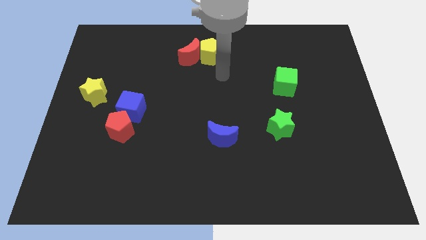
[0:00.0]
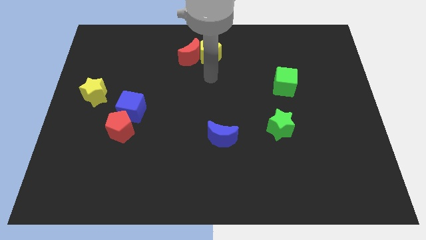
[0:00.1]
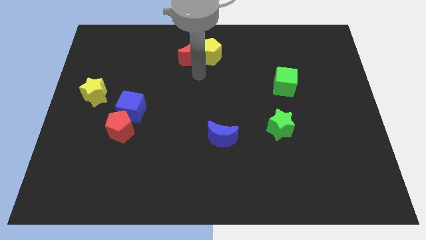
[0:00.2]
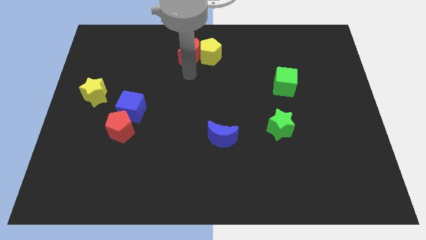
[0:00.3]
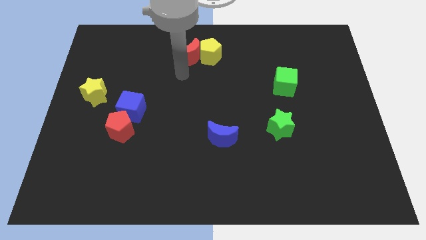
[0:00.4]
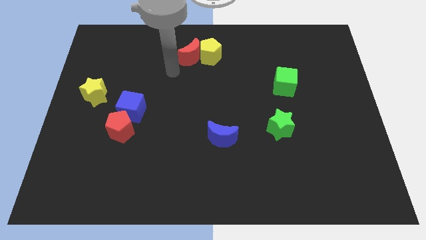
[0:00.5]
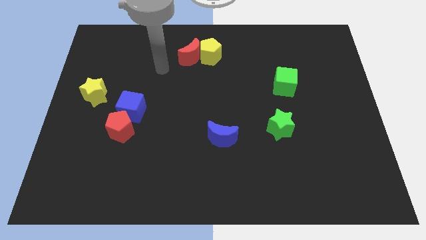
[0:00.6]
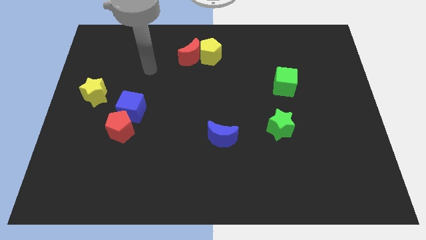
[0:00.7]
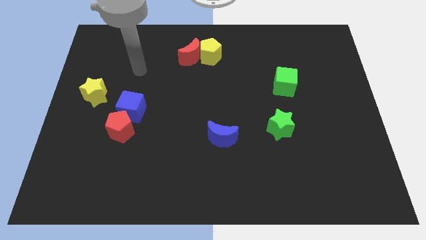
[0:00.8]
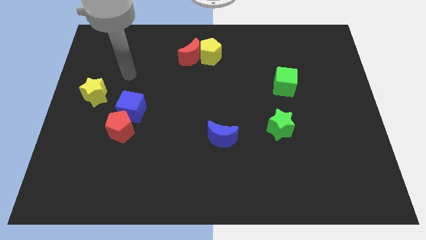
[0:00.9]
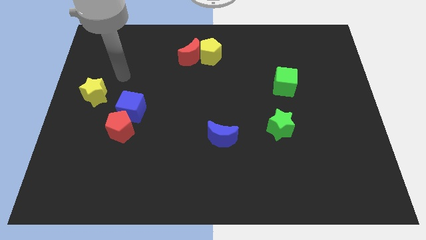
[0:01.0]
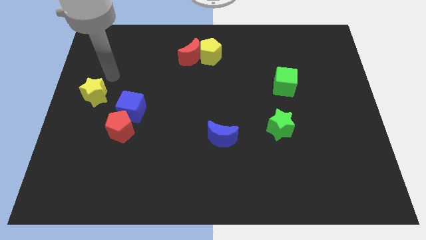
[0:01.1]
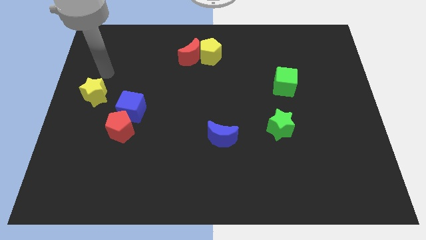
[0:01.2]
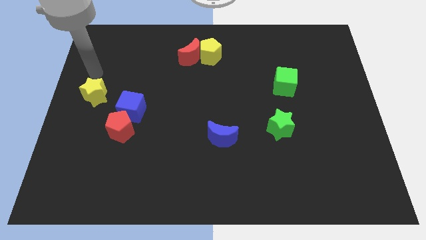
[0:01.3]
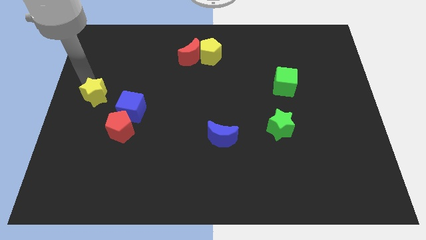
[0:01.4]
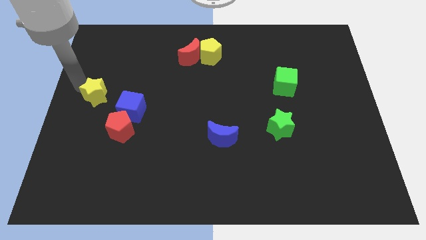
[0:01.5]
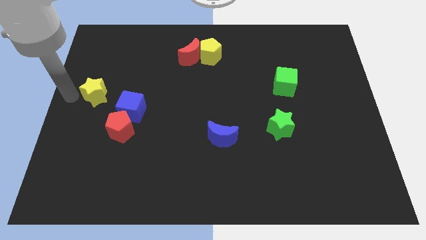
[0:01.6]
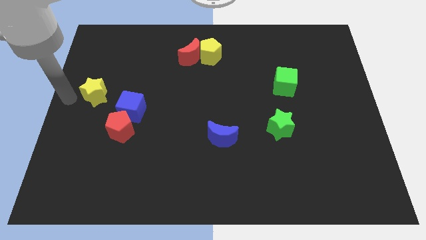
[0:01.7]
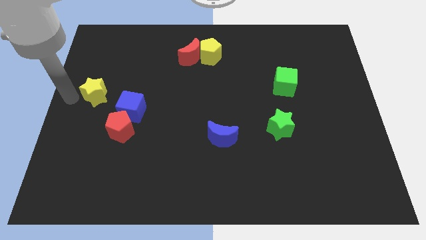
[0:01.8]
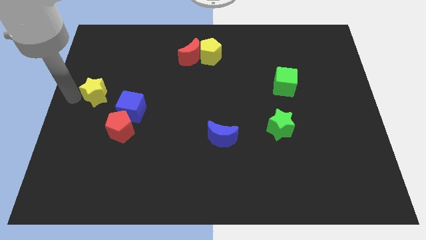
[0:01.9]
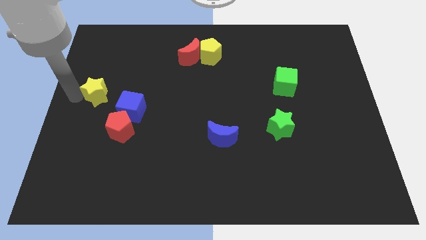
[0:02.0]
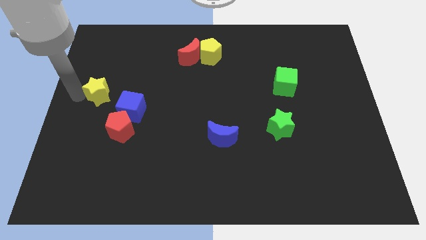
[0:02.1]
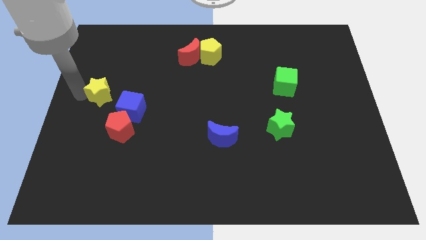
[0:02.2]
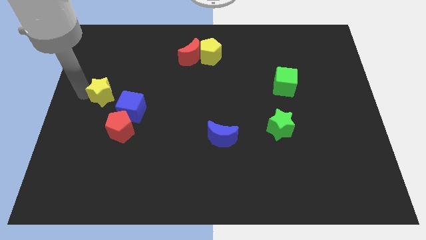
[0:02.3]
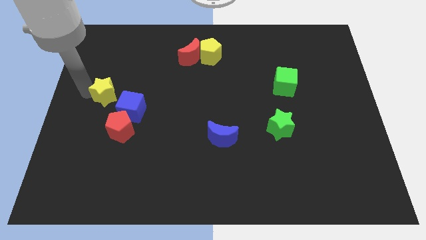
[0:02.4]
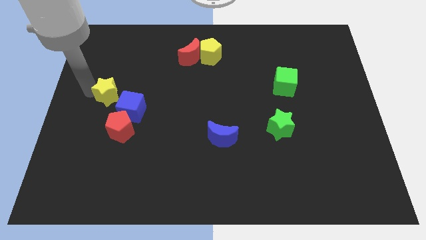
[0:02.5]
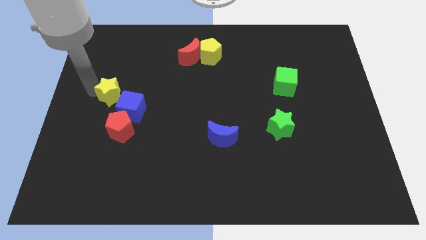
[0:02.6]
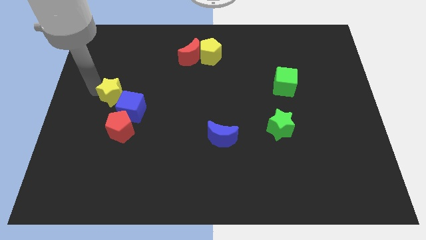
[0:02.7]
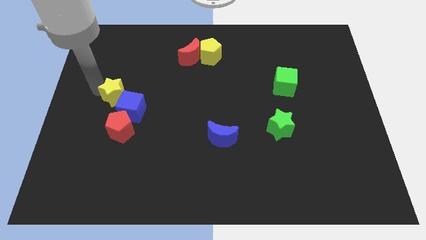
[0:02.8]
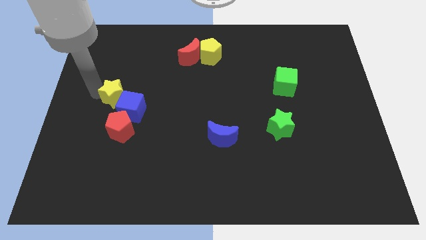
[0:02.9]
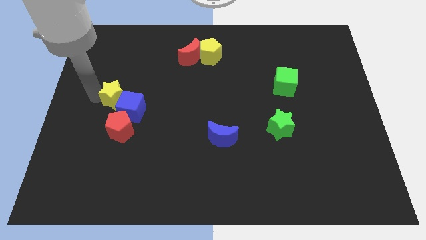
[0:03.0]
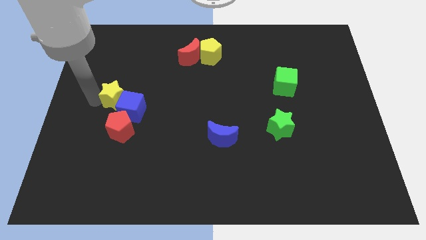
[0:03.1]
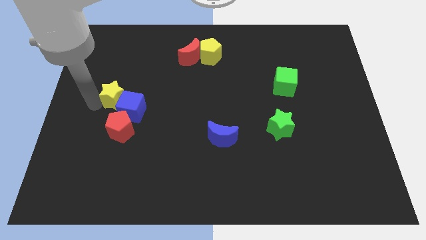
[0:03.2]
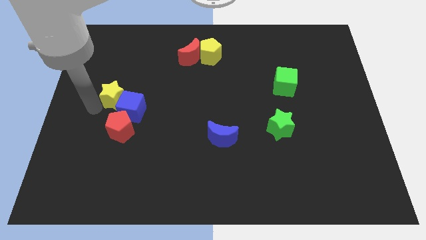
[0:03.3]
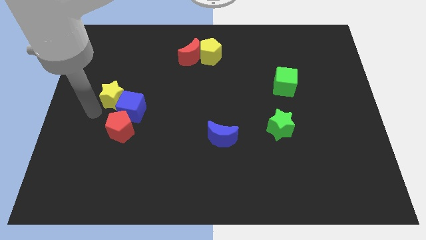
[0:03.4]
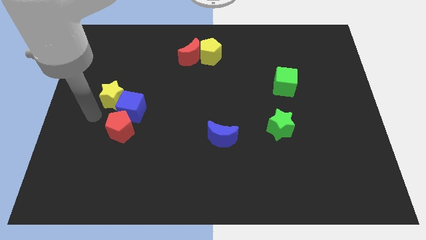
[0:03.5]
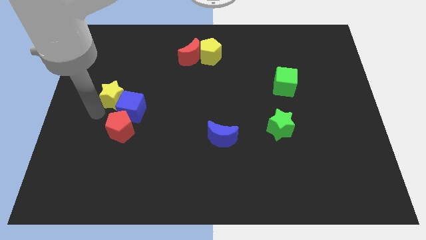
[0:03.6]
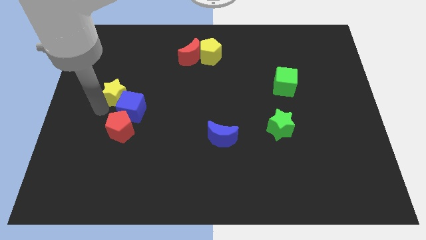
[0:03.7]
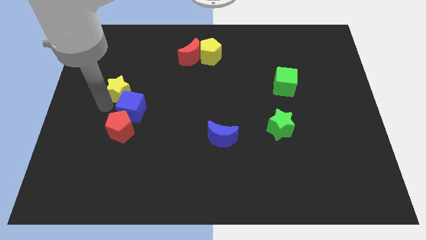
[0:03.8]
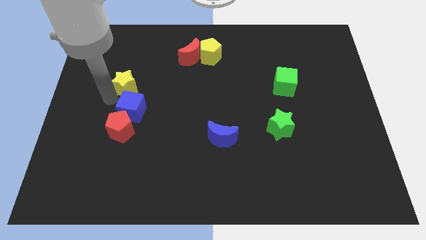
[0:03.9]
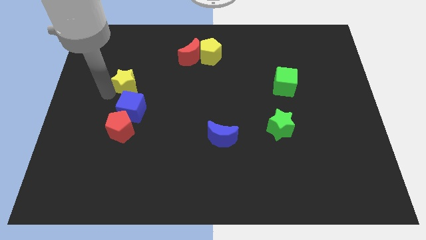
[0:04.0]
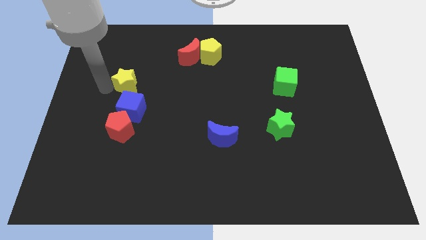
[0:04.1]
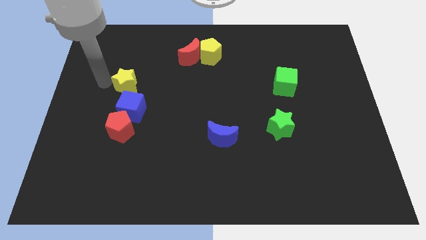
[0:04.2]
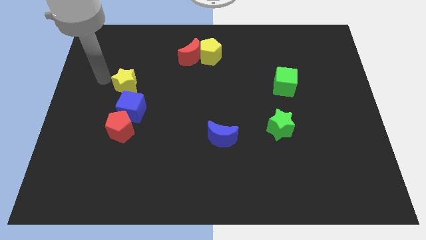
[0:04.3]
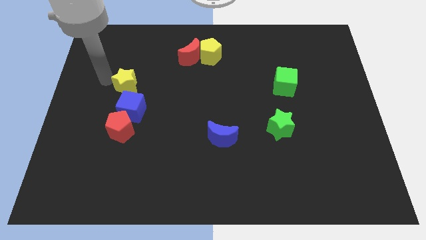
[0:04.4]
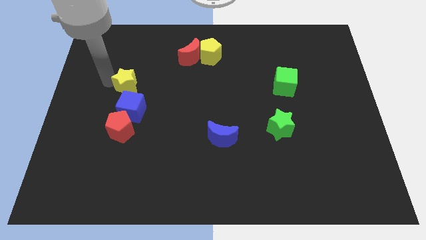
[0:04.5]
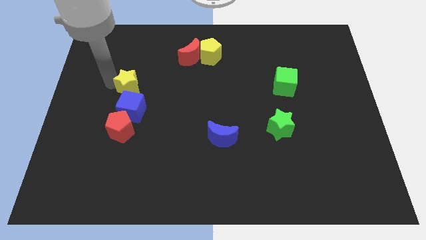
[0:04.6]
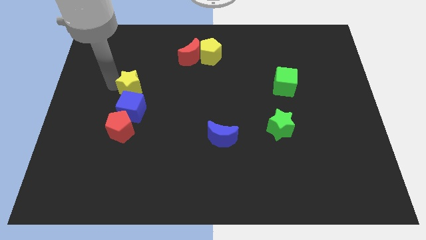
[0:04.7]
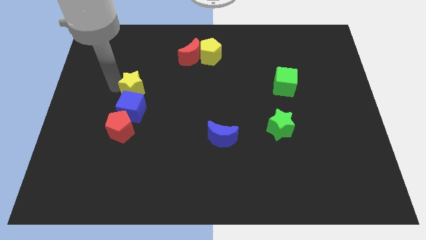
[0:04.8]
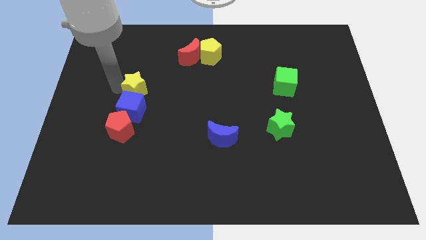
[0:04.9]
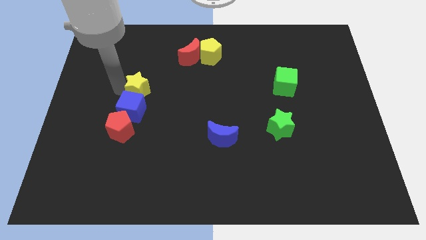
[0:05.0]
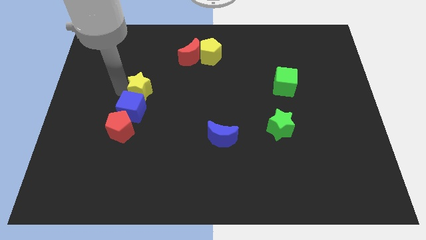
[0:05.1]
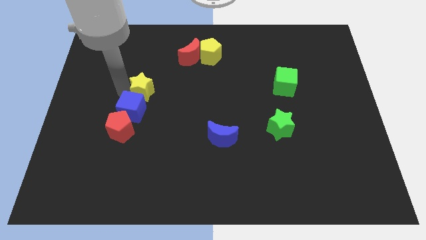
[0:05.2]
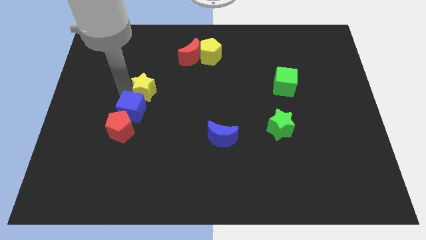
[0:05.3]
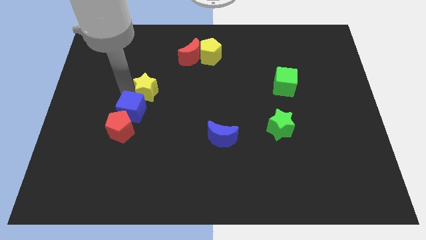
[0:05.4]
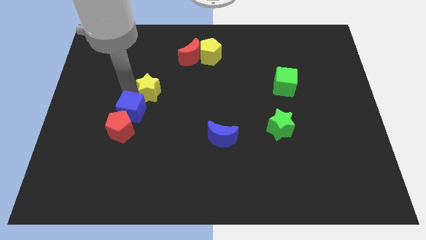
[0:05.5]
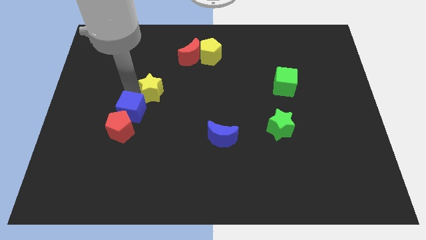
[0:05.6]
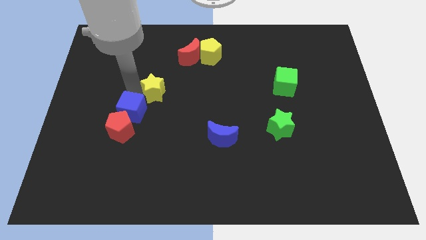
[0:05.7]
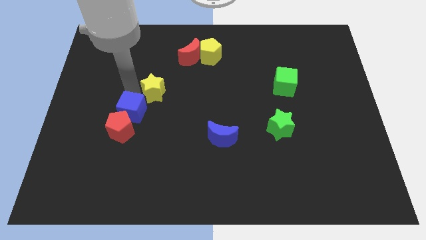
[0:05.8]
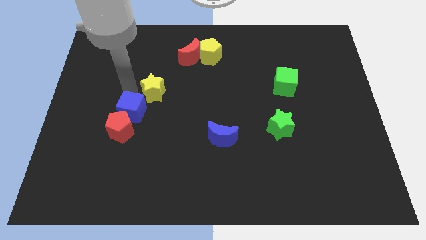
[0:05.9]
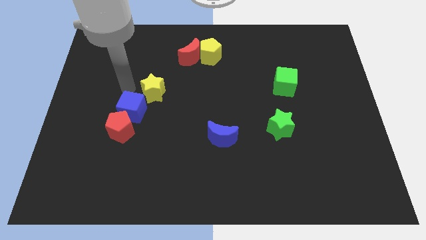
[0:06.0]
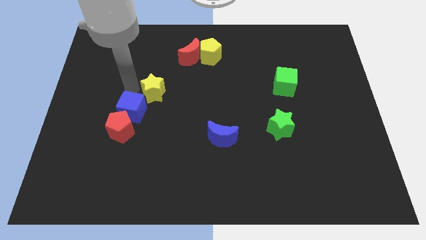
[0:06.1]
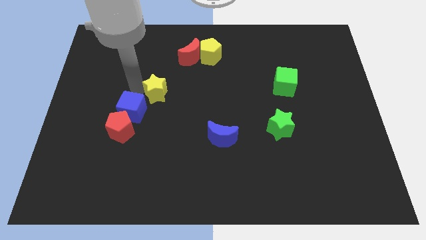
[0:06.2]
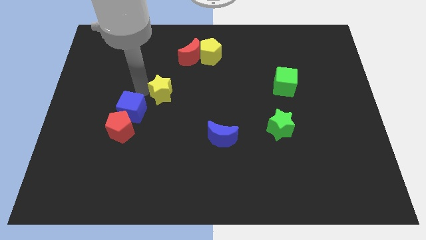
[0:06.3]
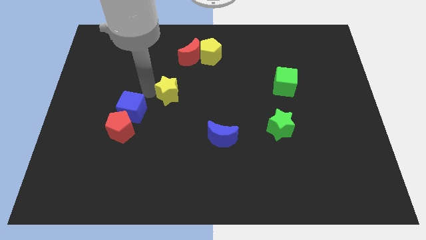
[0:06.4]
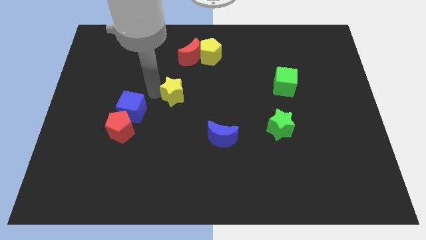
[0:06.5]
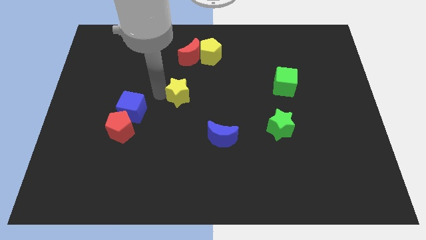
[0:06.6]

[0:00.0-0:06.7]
slide the yellow star right

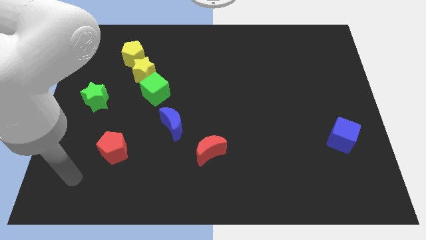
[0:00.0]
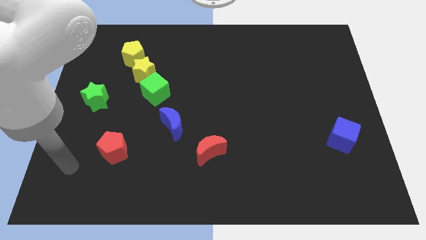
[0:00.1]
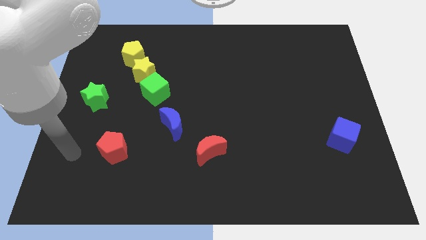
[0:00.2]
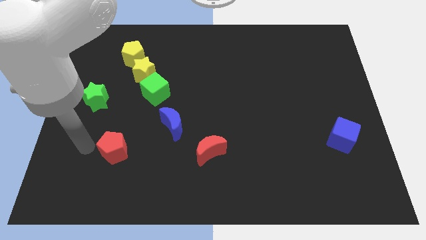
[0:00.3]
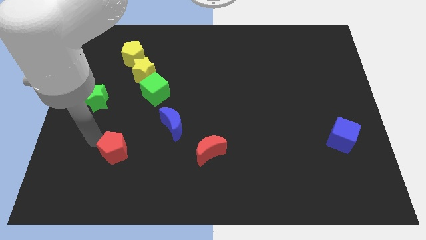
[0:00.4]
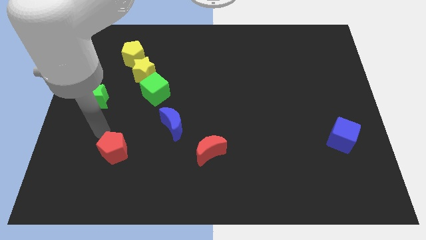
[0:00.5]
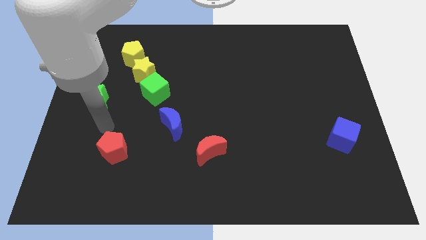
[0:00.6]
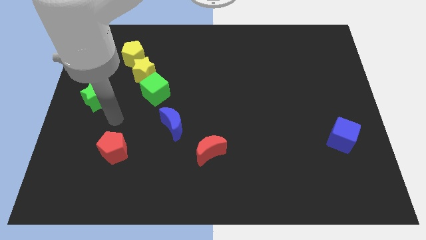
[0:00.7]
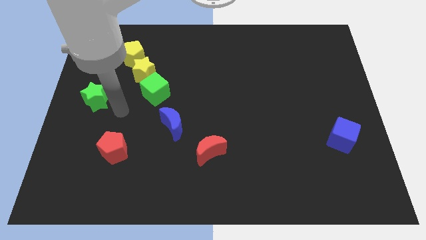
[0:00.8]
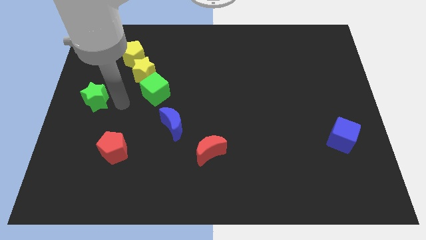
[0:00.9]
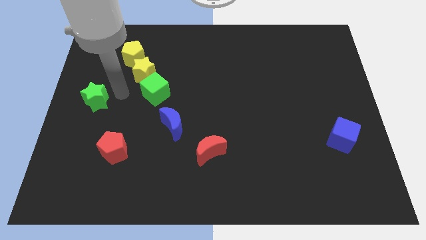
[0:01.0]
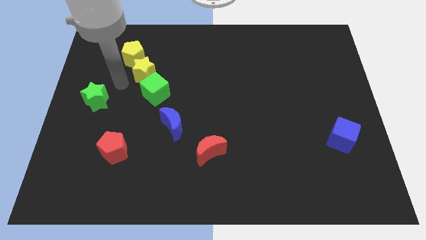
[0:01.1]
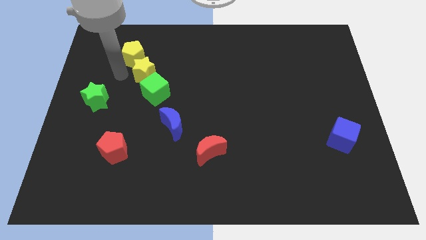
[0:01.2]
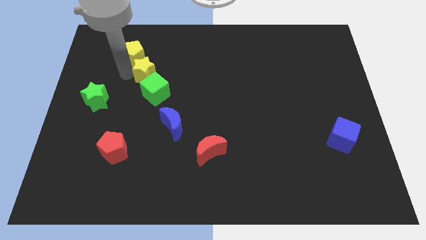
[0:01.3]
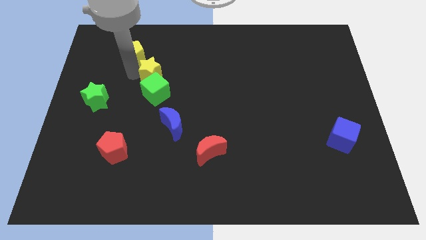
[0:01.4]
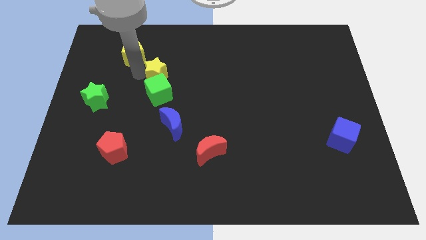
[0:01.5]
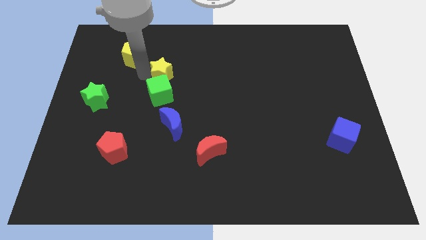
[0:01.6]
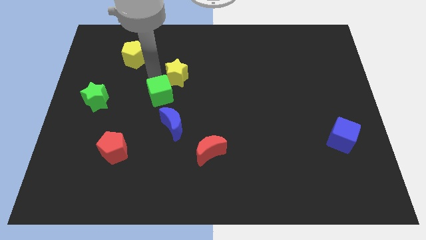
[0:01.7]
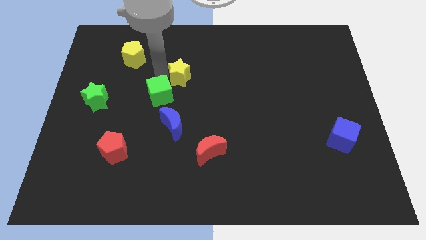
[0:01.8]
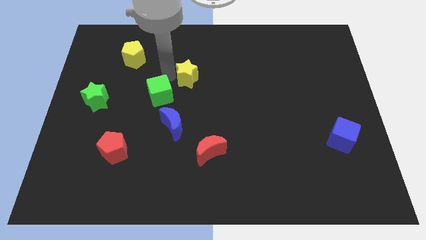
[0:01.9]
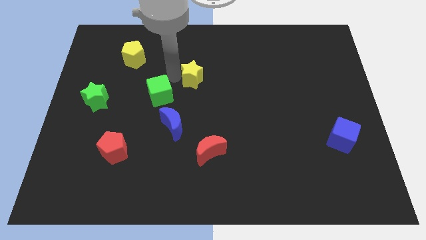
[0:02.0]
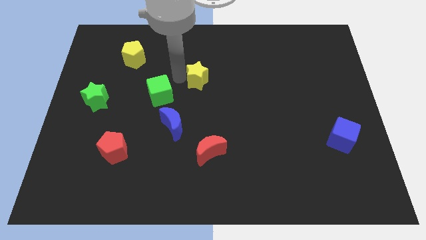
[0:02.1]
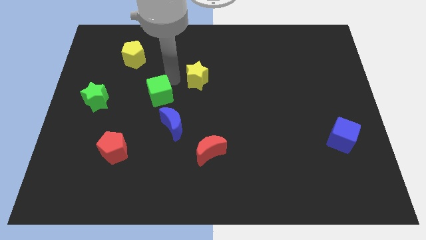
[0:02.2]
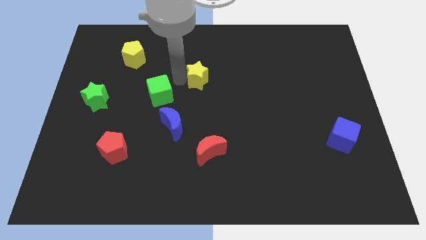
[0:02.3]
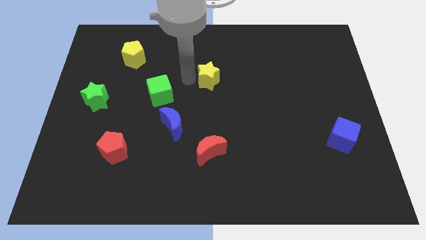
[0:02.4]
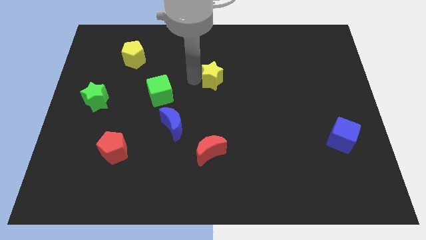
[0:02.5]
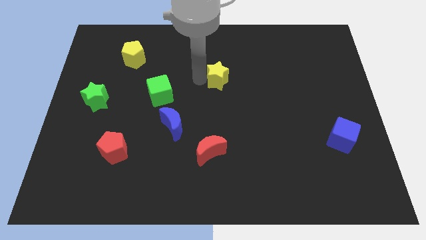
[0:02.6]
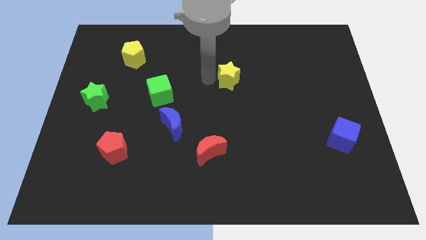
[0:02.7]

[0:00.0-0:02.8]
slide the yellow star to the right
